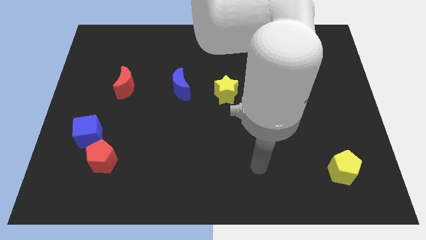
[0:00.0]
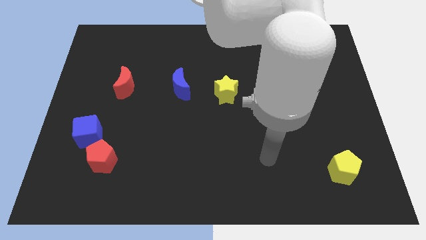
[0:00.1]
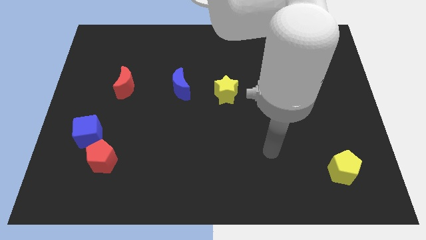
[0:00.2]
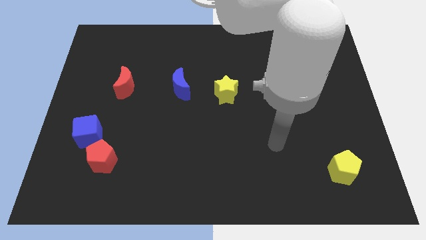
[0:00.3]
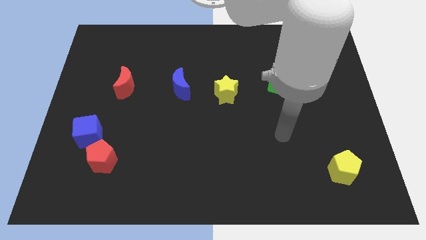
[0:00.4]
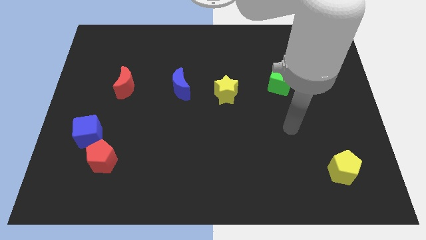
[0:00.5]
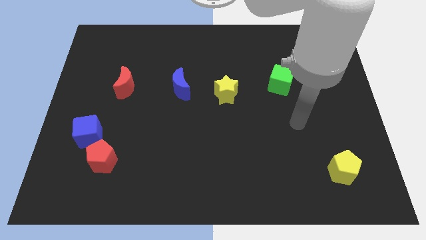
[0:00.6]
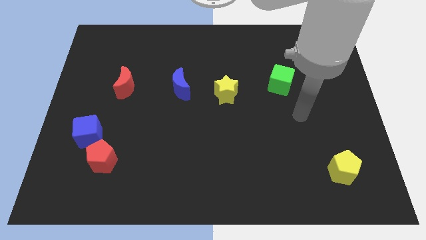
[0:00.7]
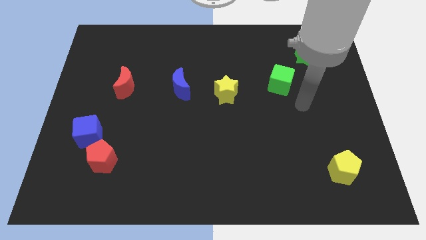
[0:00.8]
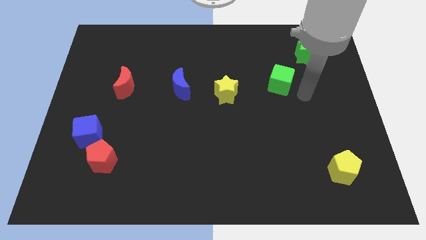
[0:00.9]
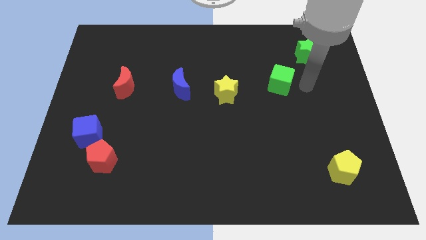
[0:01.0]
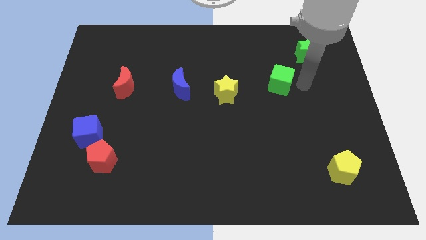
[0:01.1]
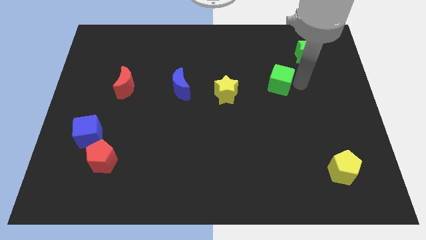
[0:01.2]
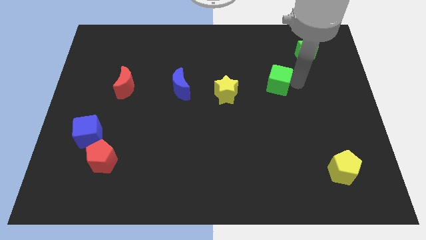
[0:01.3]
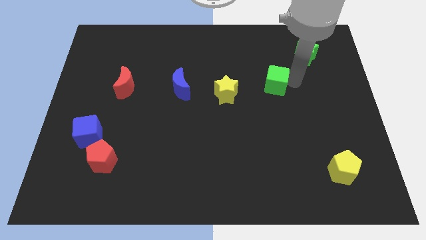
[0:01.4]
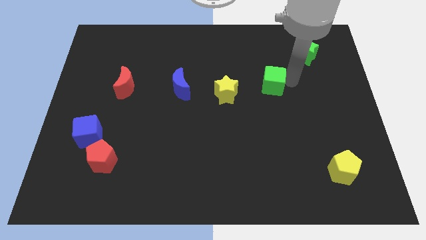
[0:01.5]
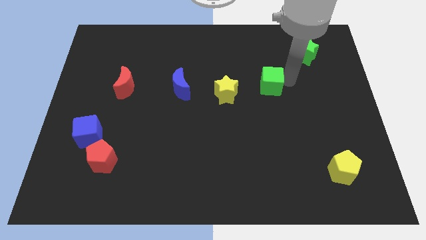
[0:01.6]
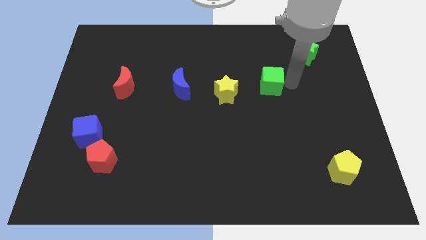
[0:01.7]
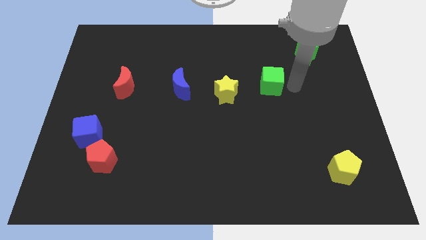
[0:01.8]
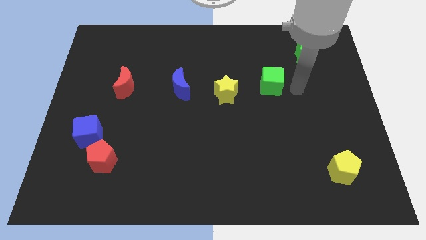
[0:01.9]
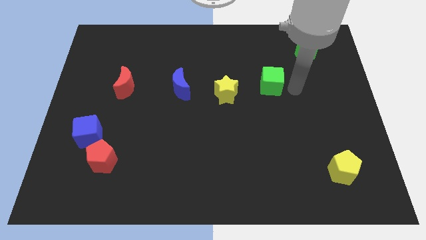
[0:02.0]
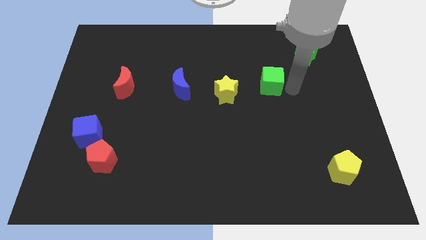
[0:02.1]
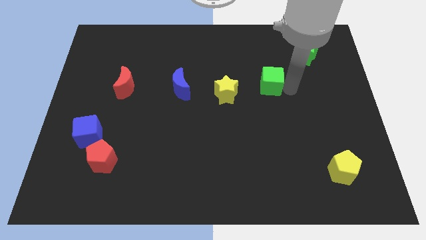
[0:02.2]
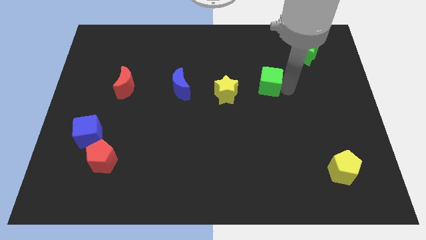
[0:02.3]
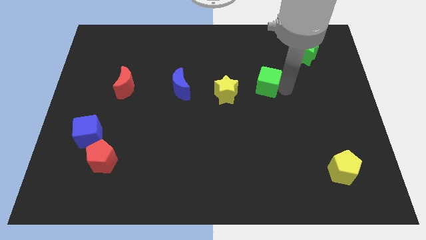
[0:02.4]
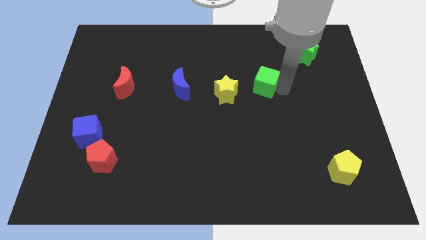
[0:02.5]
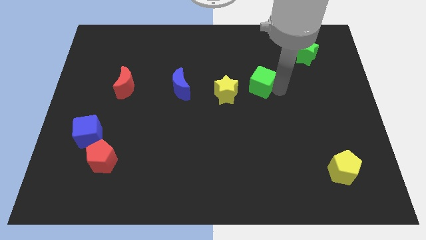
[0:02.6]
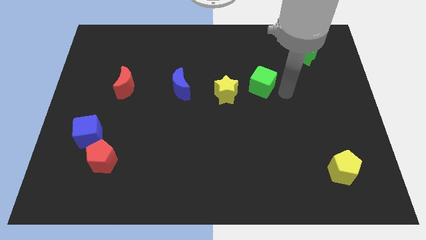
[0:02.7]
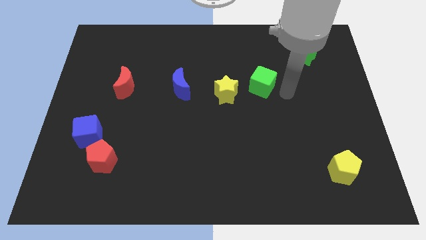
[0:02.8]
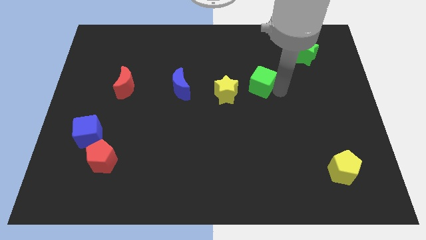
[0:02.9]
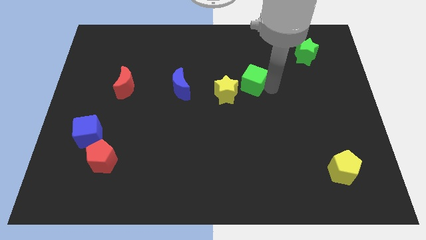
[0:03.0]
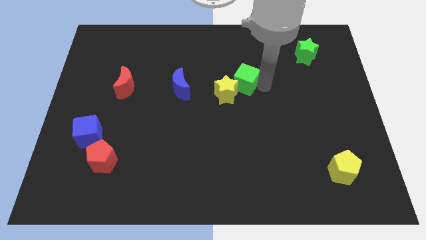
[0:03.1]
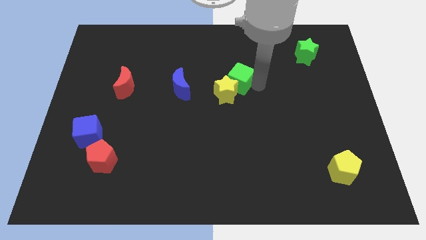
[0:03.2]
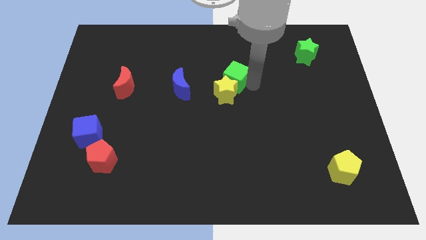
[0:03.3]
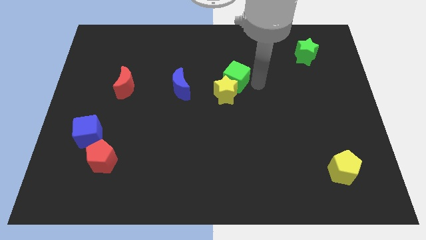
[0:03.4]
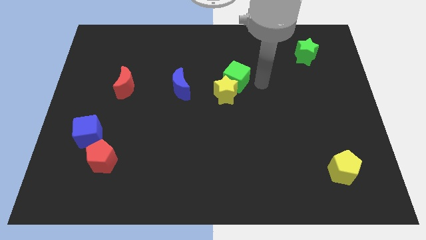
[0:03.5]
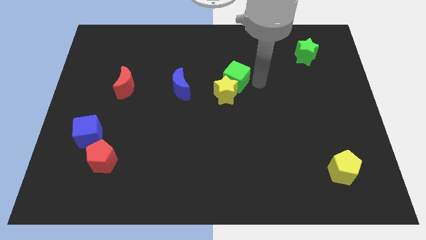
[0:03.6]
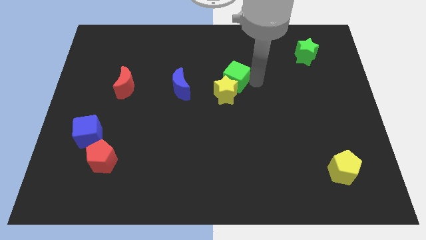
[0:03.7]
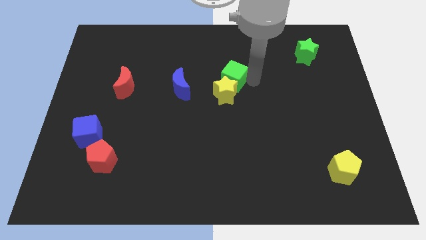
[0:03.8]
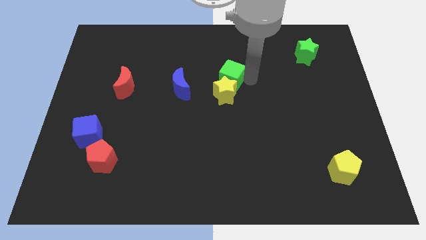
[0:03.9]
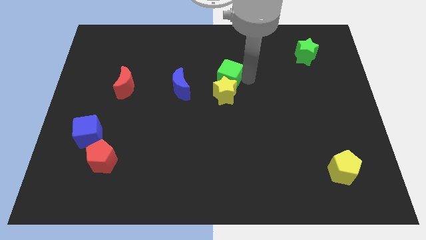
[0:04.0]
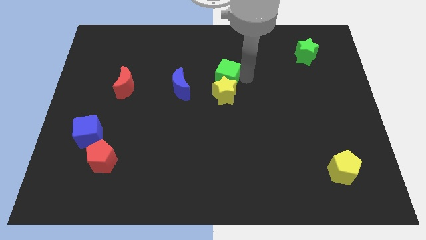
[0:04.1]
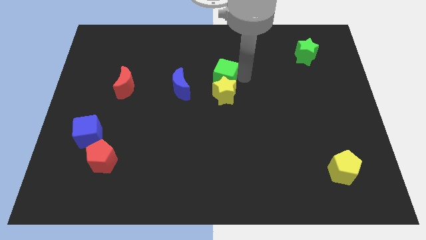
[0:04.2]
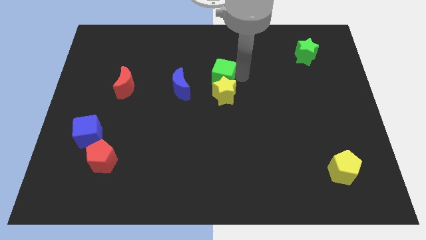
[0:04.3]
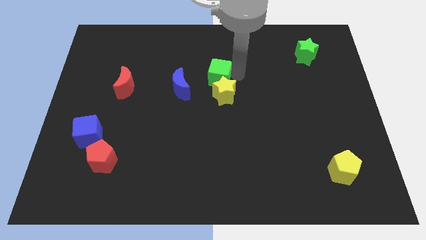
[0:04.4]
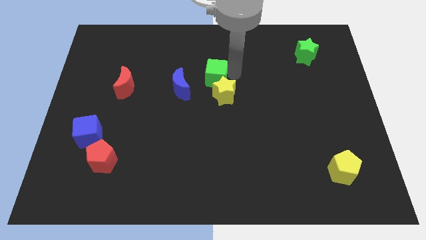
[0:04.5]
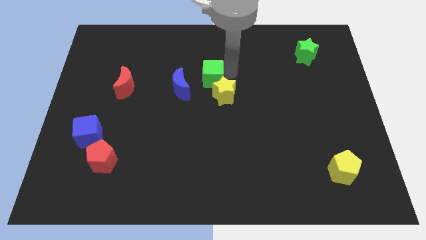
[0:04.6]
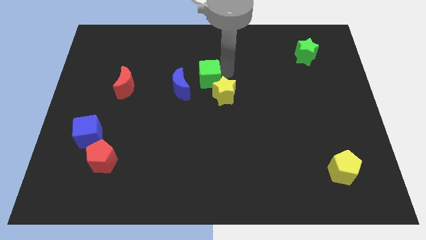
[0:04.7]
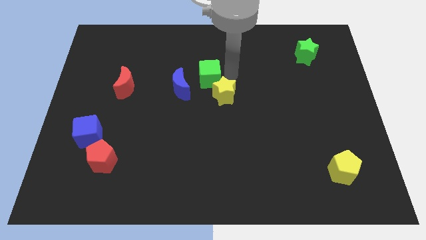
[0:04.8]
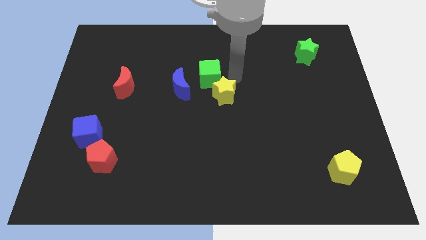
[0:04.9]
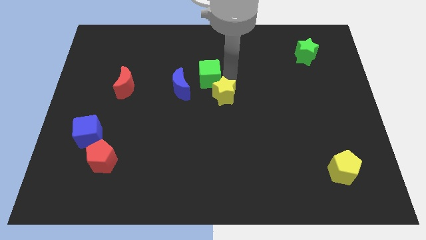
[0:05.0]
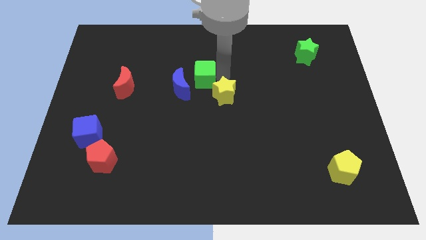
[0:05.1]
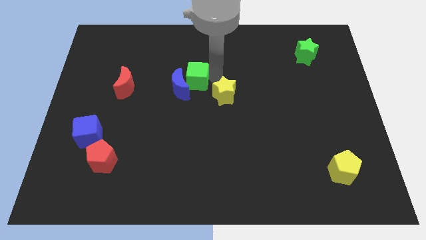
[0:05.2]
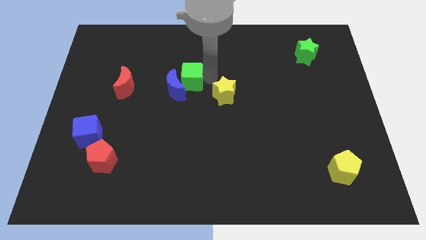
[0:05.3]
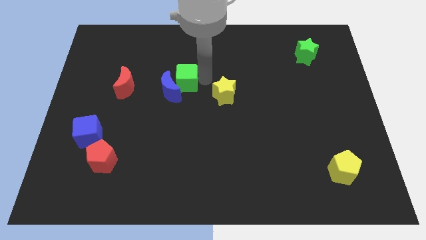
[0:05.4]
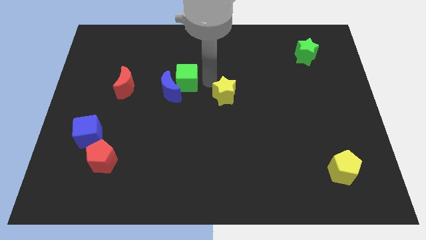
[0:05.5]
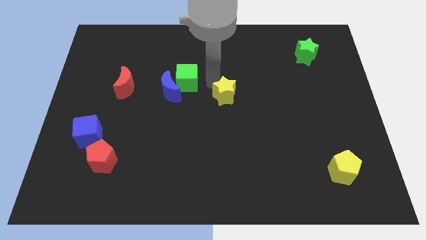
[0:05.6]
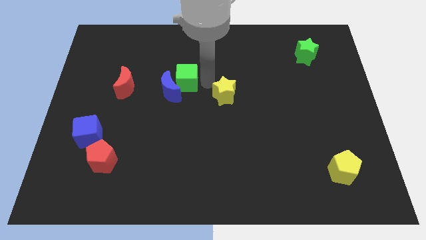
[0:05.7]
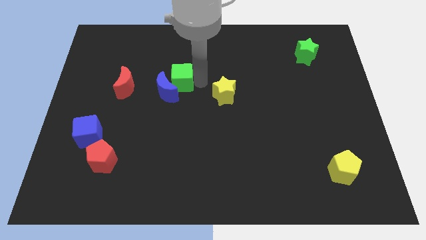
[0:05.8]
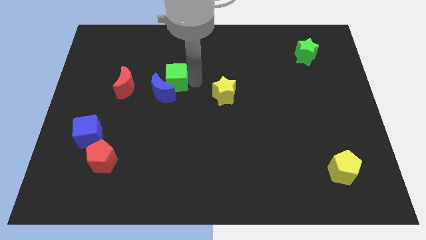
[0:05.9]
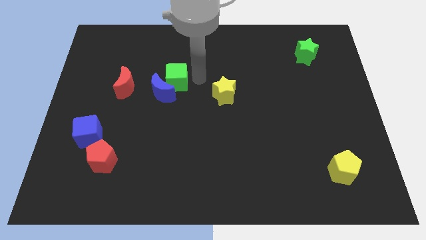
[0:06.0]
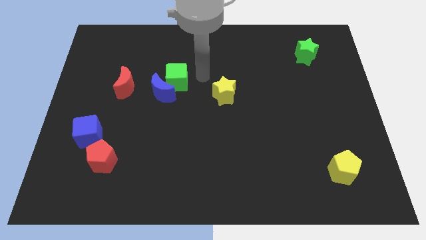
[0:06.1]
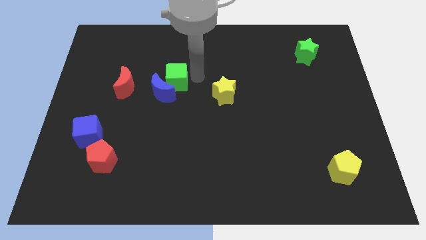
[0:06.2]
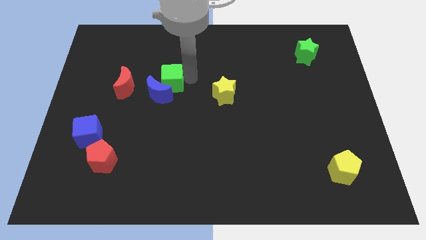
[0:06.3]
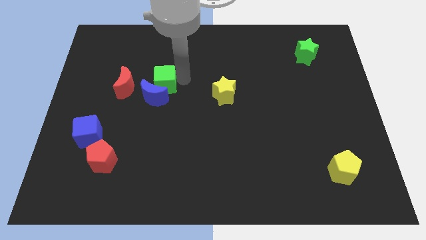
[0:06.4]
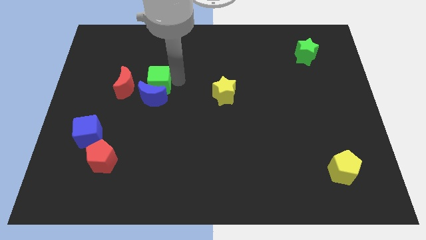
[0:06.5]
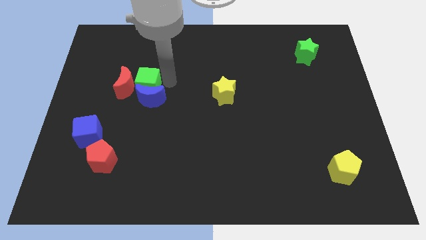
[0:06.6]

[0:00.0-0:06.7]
push the green cube next to the red moon

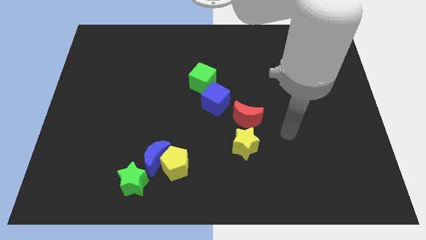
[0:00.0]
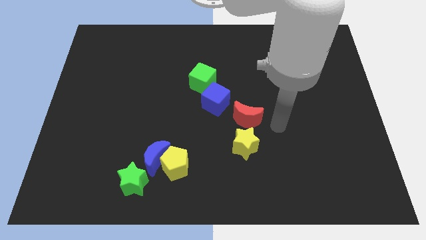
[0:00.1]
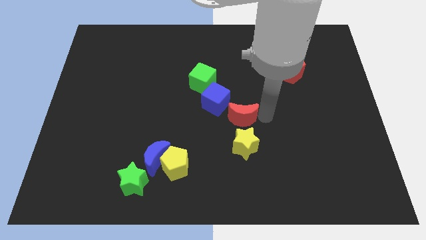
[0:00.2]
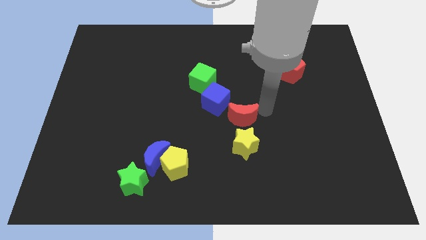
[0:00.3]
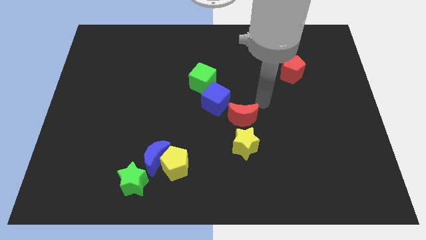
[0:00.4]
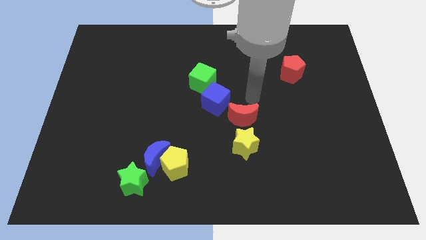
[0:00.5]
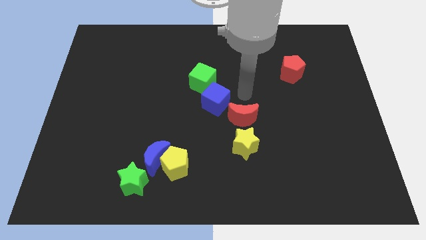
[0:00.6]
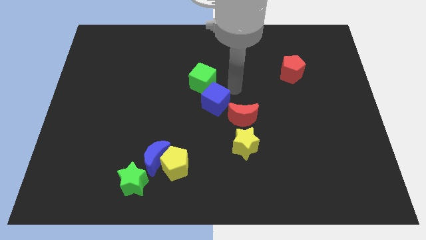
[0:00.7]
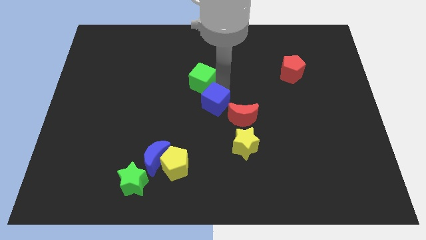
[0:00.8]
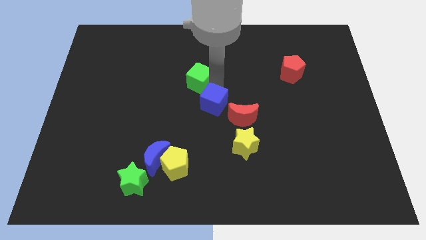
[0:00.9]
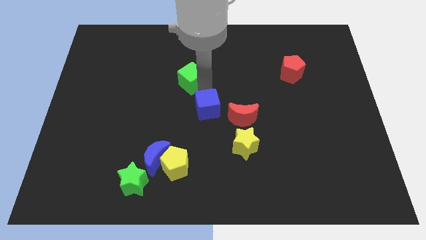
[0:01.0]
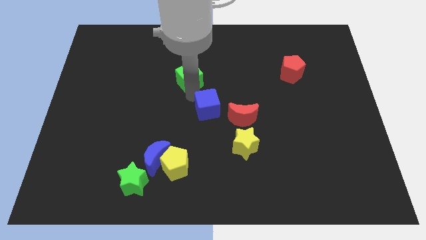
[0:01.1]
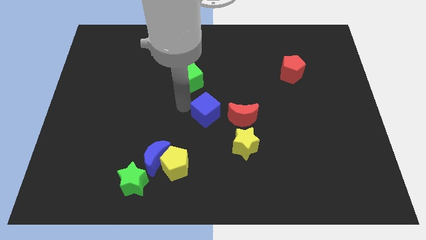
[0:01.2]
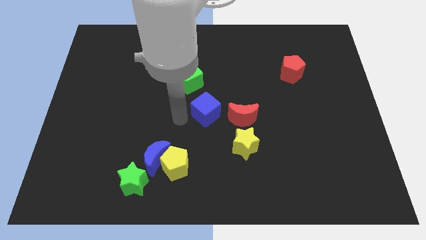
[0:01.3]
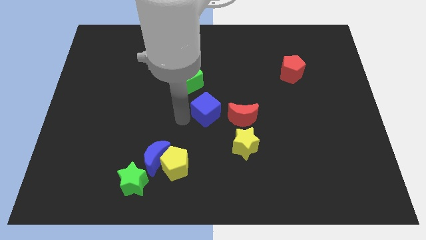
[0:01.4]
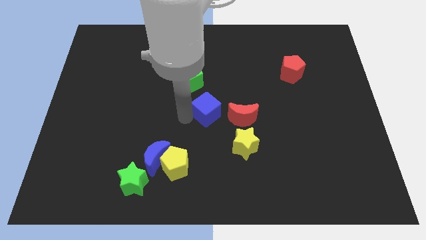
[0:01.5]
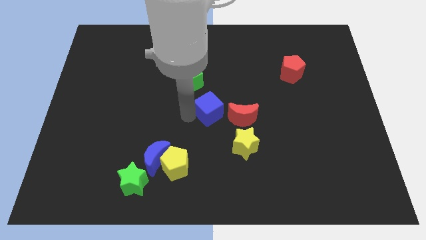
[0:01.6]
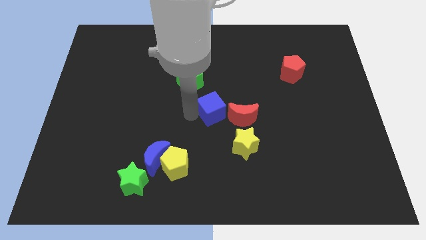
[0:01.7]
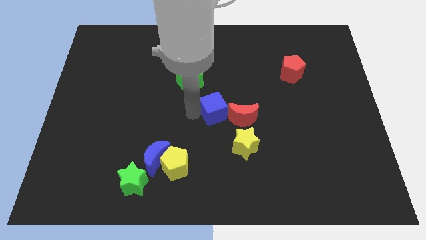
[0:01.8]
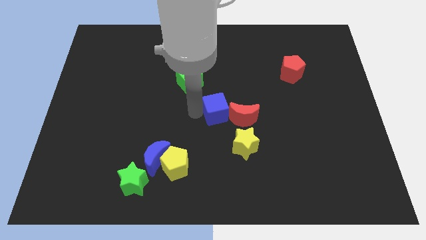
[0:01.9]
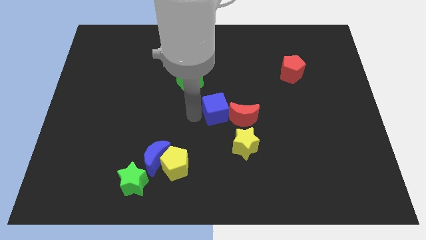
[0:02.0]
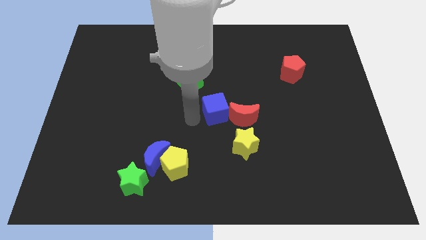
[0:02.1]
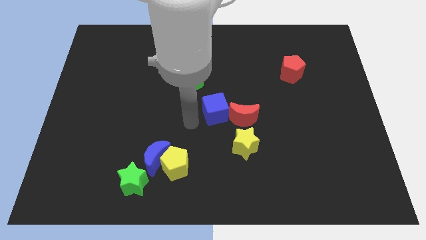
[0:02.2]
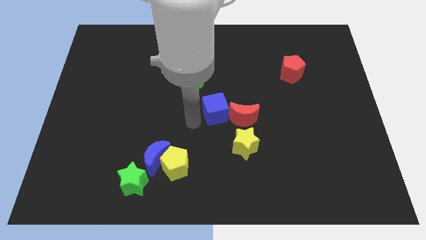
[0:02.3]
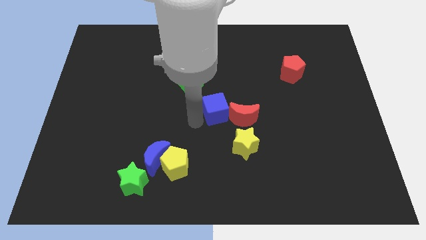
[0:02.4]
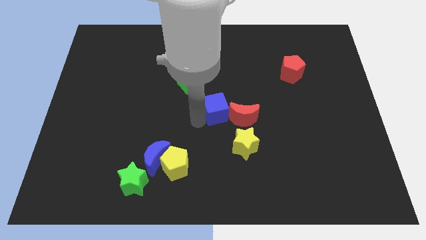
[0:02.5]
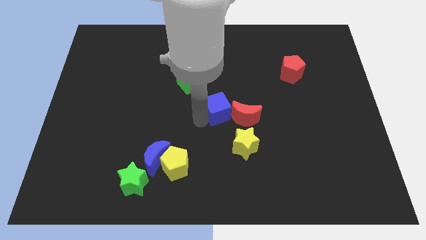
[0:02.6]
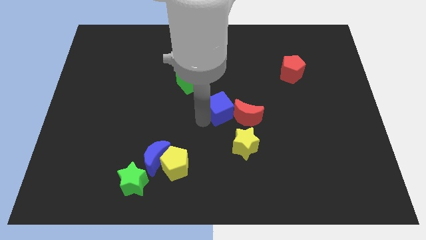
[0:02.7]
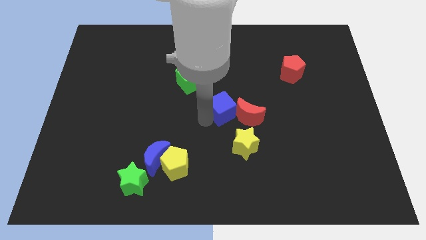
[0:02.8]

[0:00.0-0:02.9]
slide the blue cube next to the red moon
